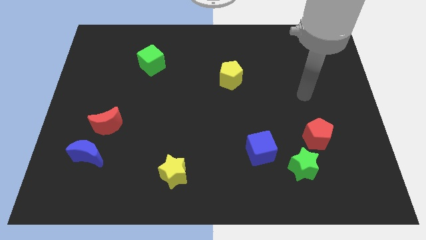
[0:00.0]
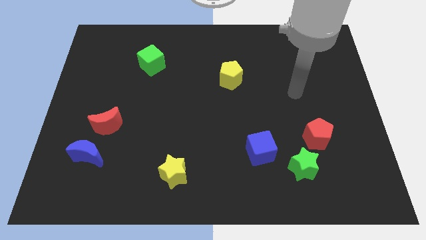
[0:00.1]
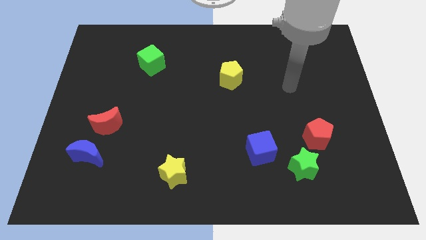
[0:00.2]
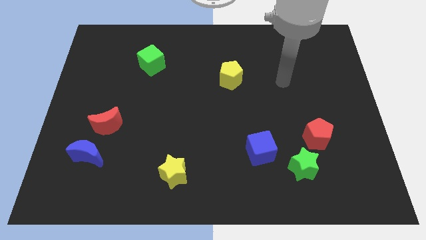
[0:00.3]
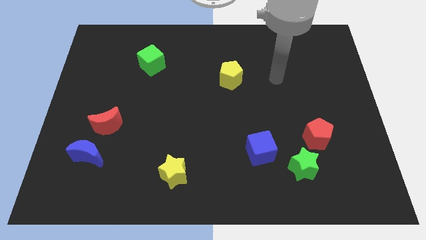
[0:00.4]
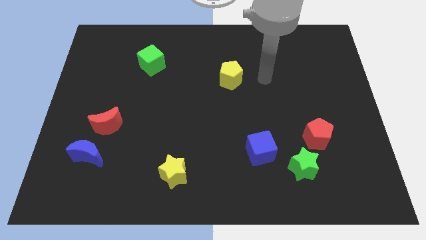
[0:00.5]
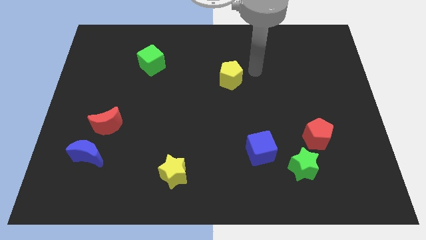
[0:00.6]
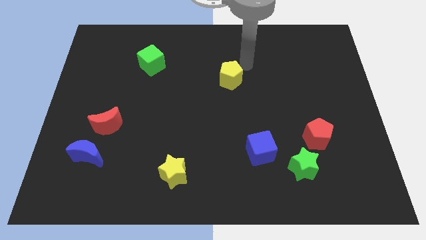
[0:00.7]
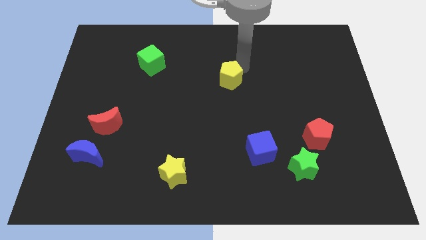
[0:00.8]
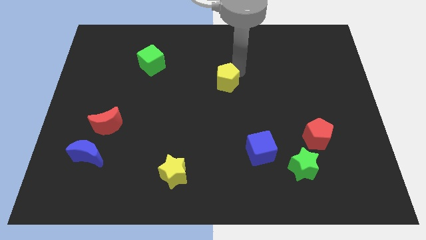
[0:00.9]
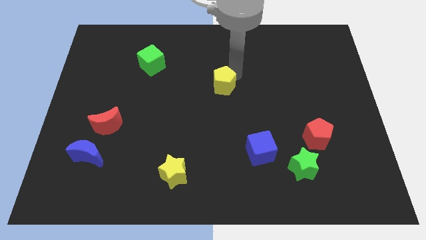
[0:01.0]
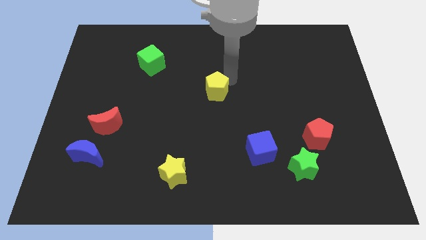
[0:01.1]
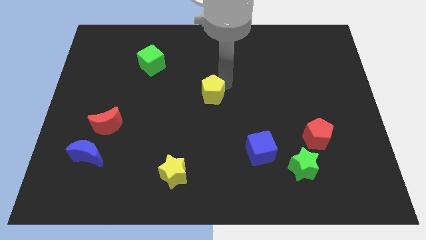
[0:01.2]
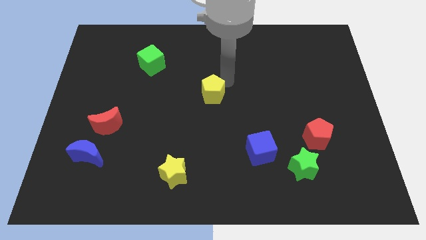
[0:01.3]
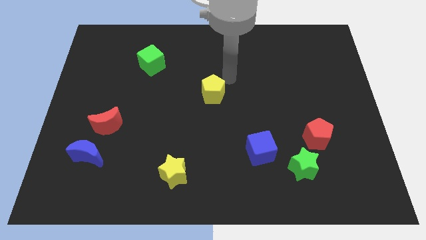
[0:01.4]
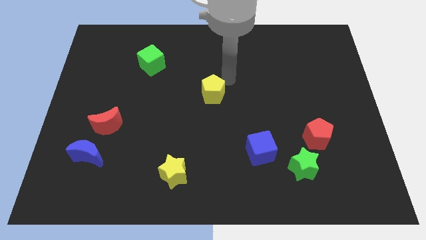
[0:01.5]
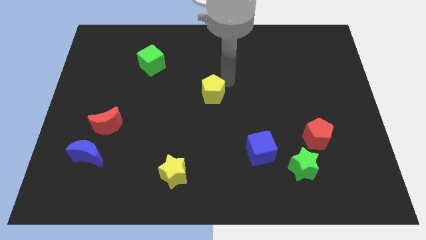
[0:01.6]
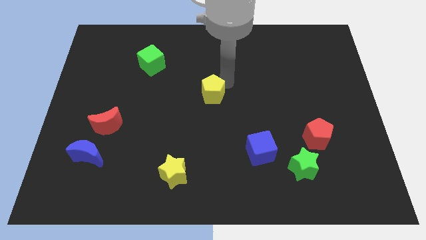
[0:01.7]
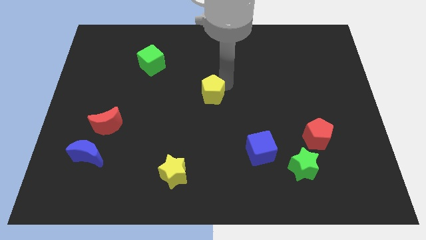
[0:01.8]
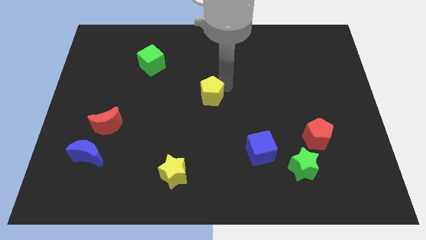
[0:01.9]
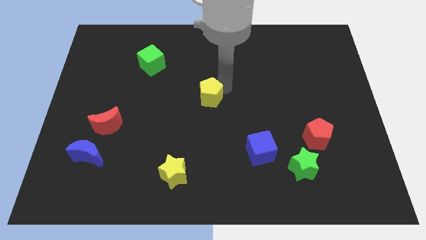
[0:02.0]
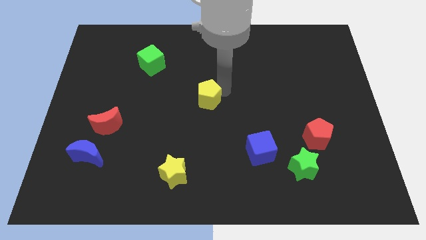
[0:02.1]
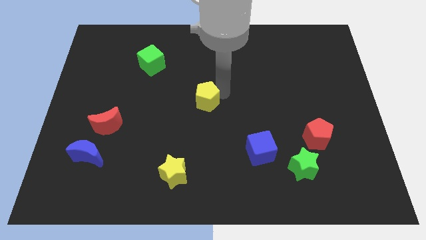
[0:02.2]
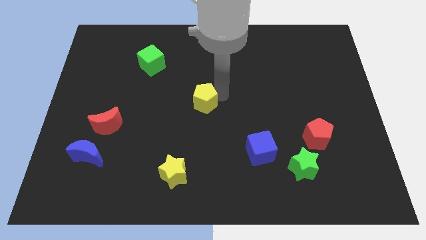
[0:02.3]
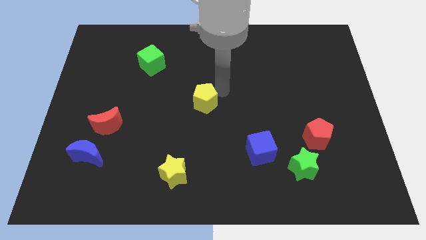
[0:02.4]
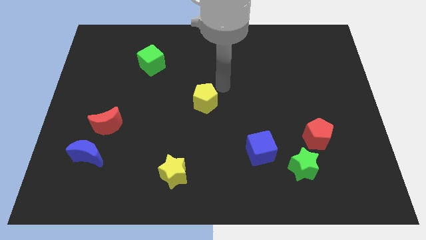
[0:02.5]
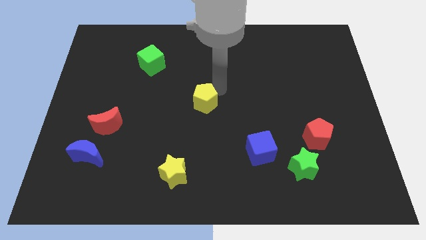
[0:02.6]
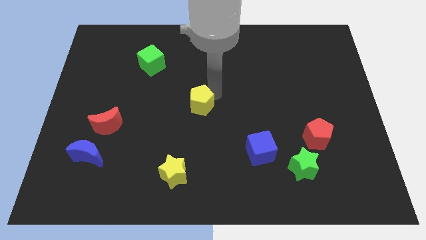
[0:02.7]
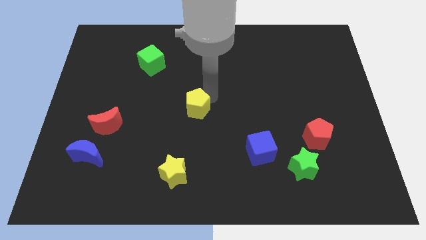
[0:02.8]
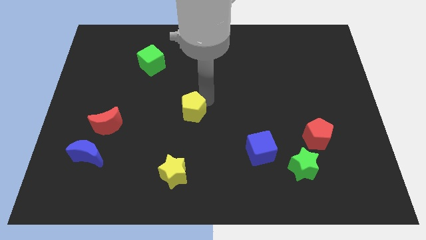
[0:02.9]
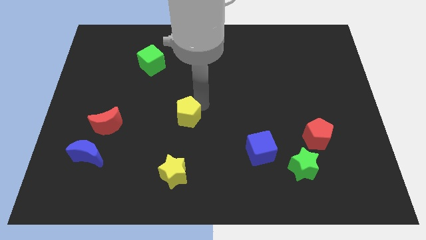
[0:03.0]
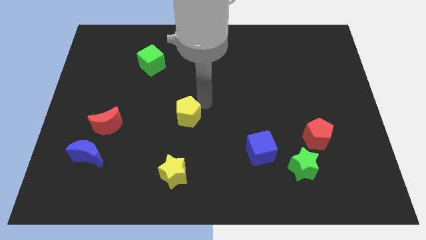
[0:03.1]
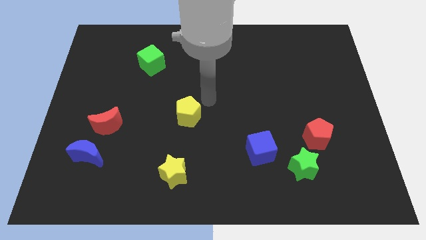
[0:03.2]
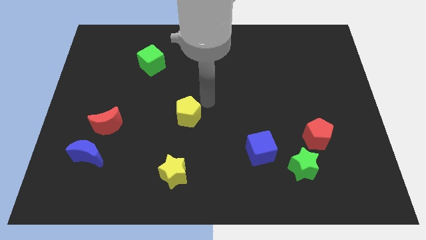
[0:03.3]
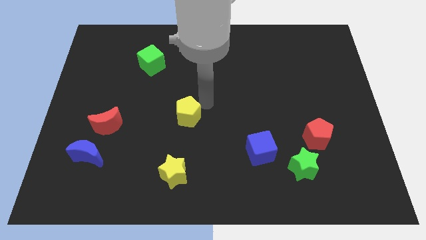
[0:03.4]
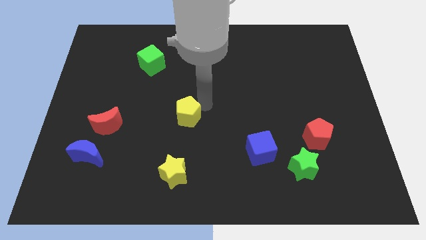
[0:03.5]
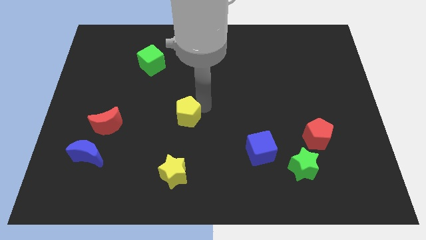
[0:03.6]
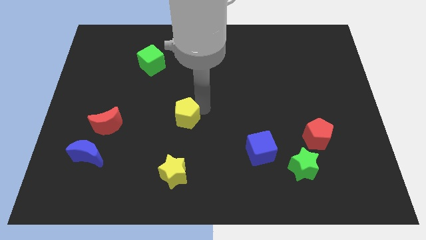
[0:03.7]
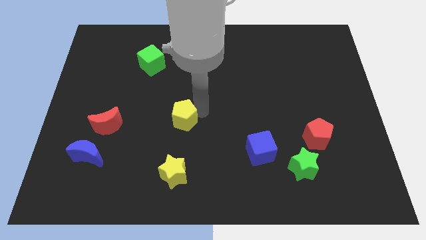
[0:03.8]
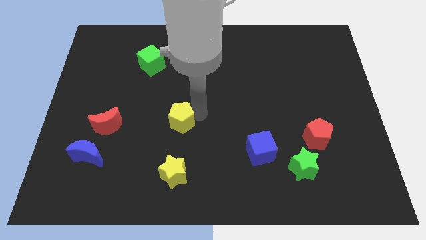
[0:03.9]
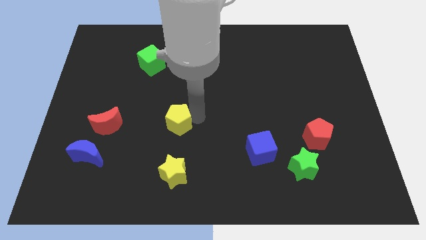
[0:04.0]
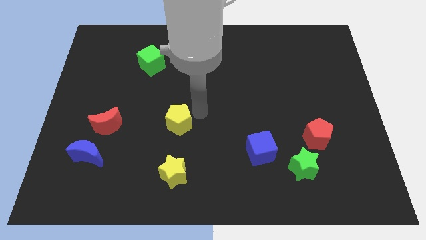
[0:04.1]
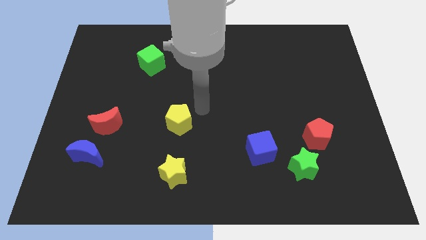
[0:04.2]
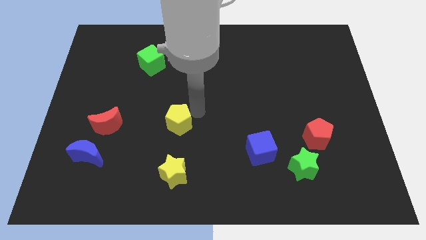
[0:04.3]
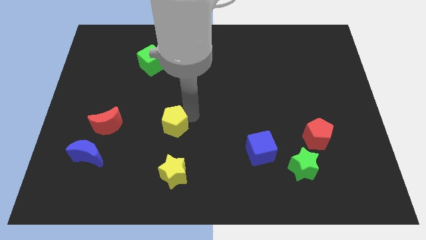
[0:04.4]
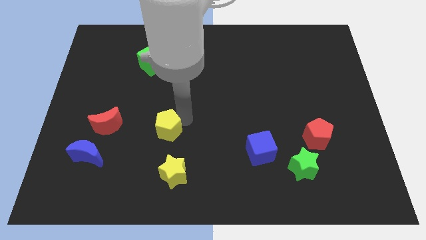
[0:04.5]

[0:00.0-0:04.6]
push the yellow pentagon downwards and left

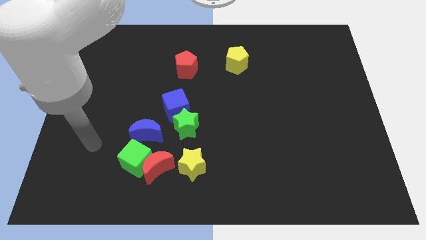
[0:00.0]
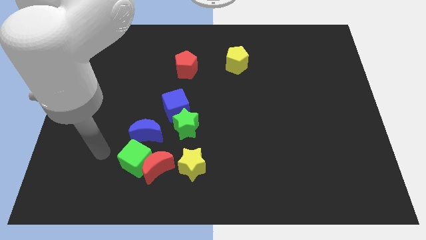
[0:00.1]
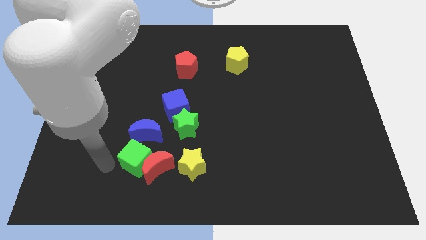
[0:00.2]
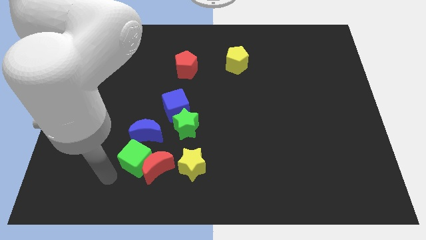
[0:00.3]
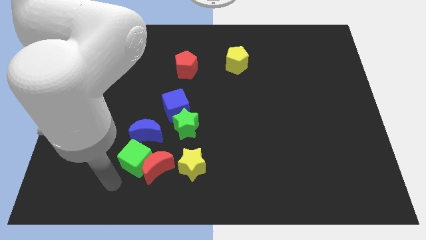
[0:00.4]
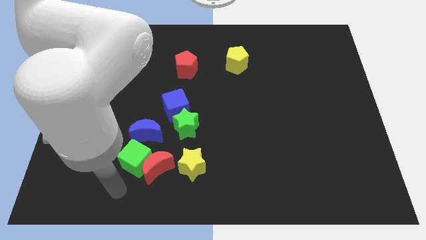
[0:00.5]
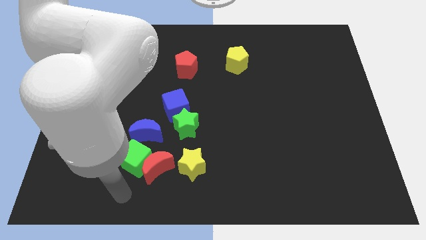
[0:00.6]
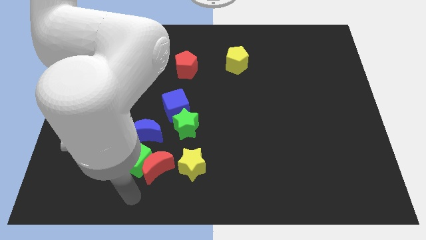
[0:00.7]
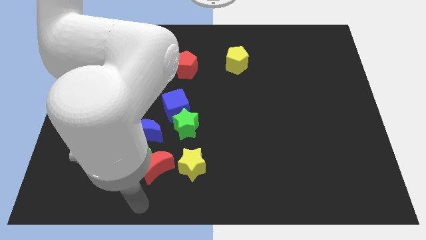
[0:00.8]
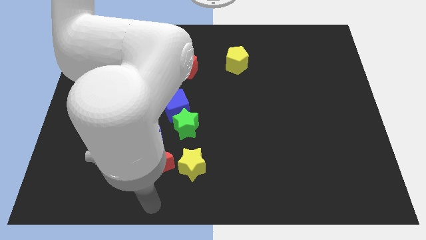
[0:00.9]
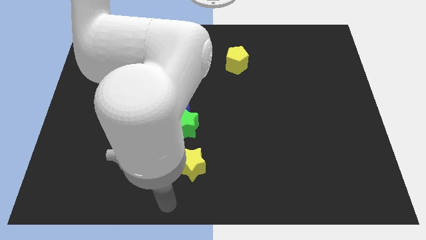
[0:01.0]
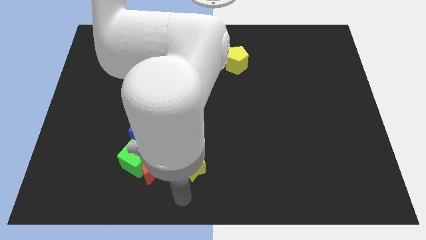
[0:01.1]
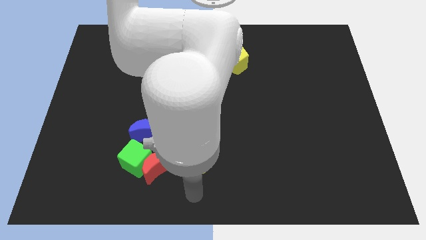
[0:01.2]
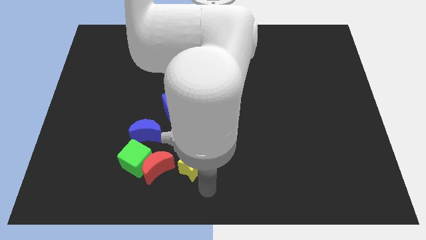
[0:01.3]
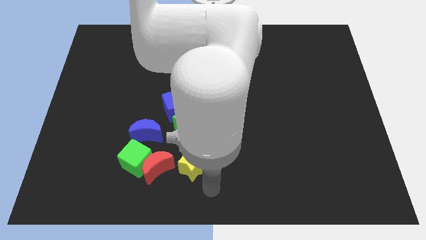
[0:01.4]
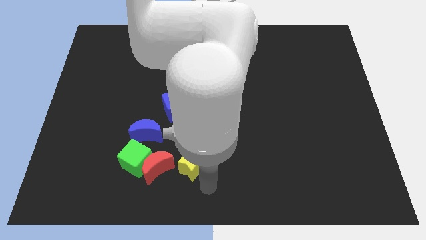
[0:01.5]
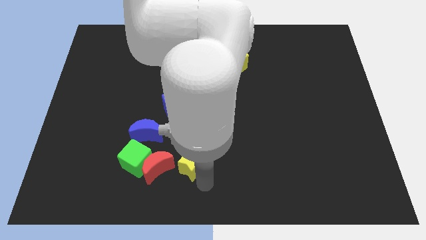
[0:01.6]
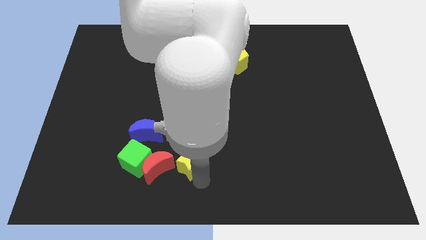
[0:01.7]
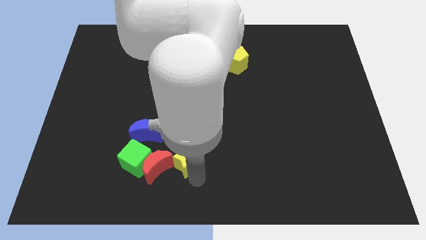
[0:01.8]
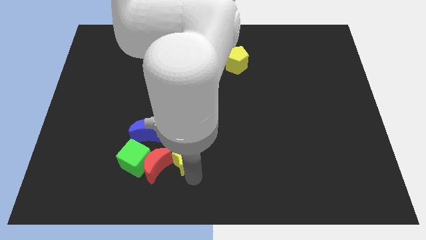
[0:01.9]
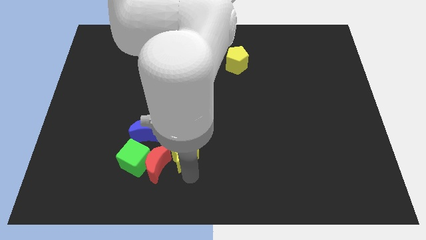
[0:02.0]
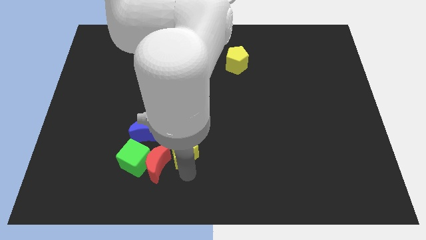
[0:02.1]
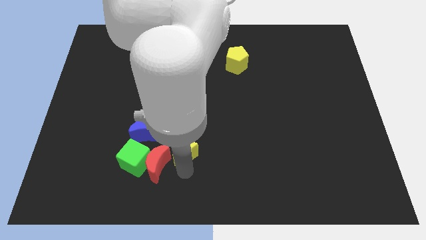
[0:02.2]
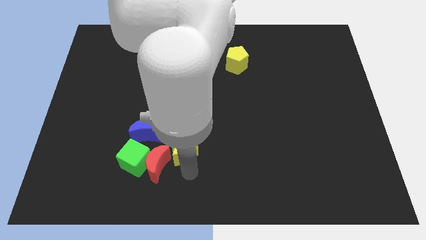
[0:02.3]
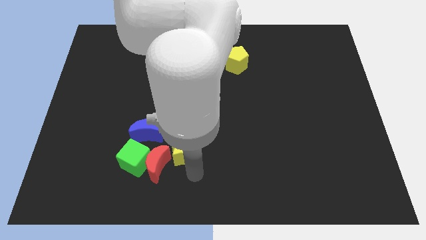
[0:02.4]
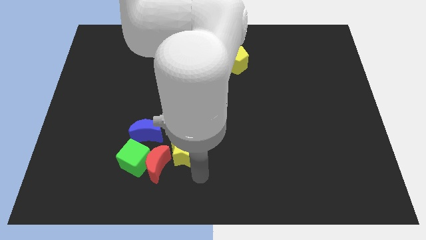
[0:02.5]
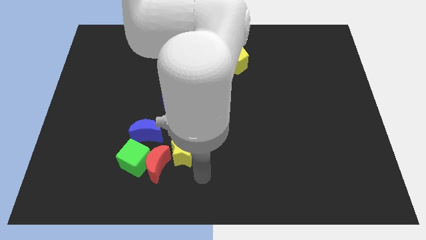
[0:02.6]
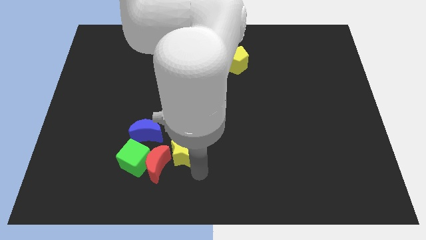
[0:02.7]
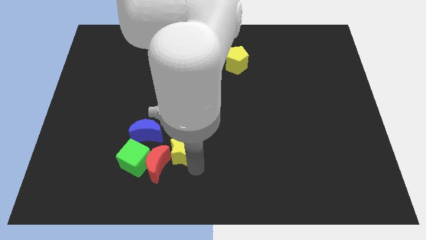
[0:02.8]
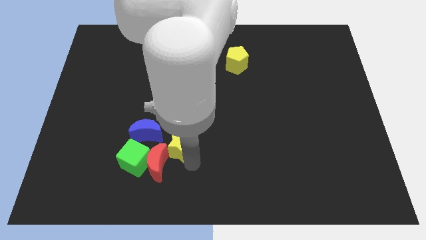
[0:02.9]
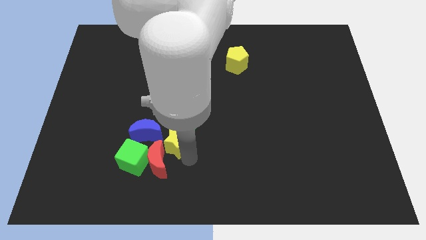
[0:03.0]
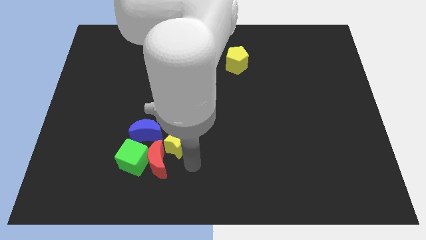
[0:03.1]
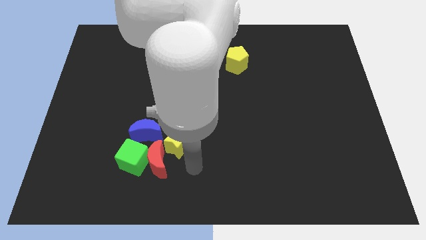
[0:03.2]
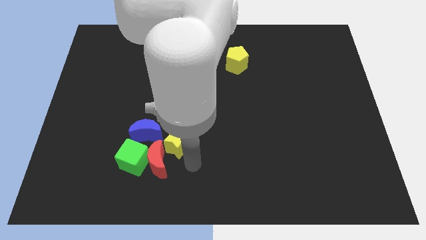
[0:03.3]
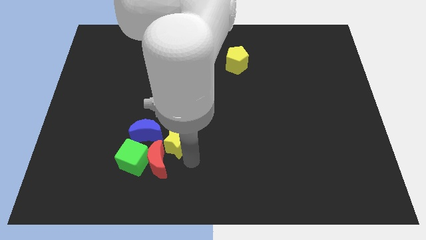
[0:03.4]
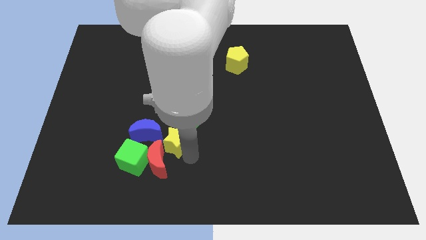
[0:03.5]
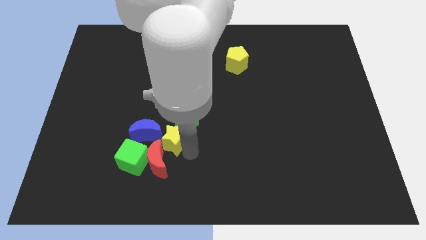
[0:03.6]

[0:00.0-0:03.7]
slightly push the yellow star up and left
